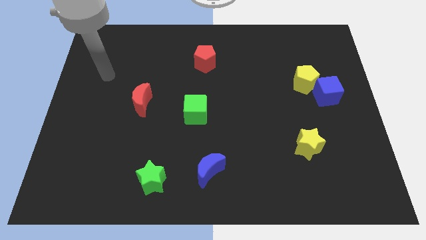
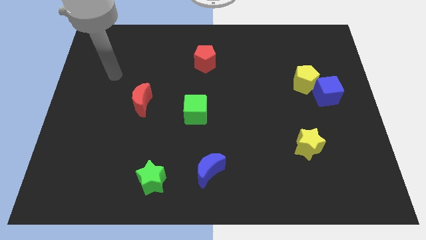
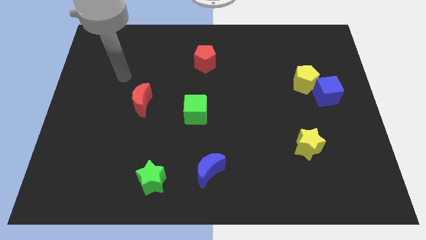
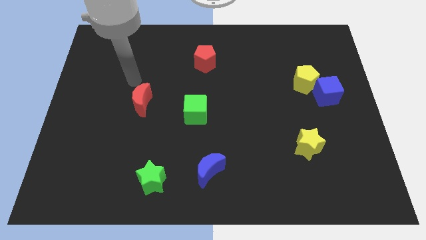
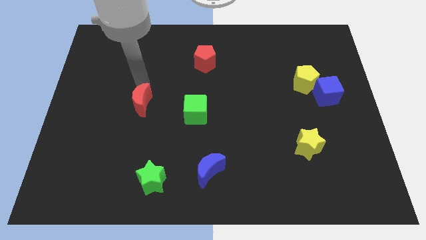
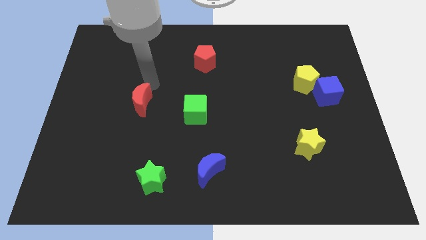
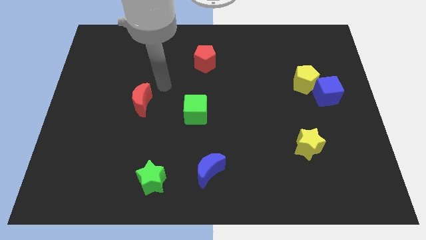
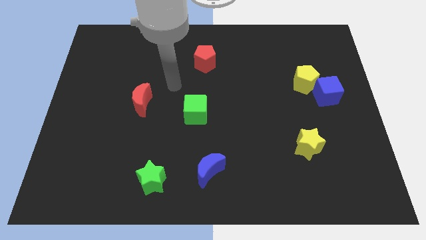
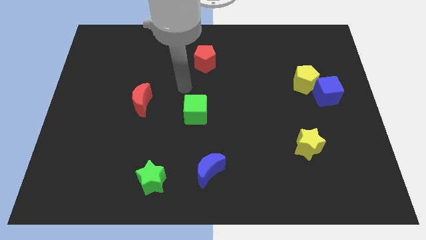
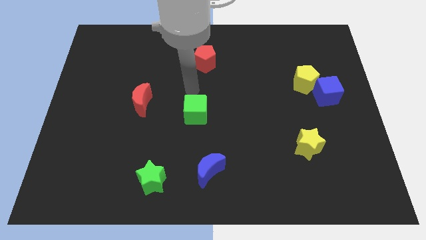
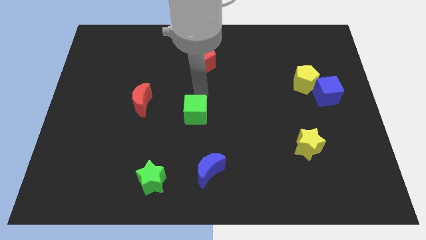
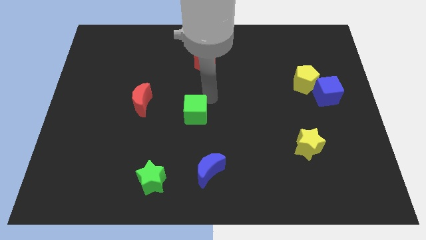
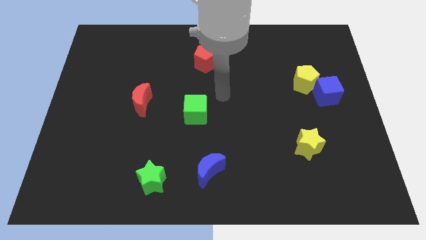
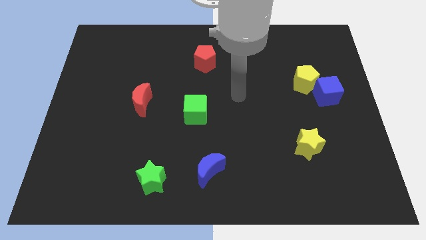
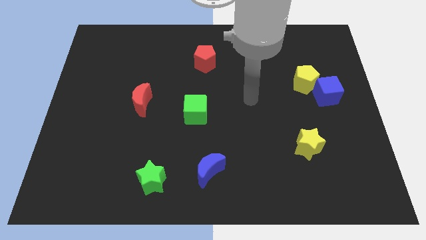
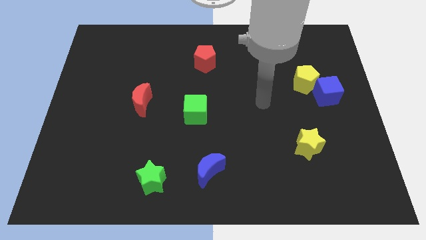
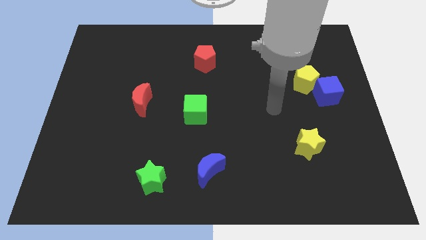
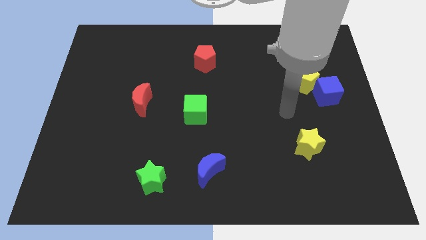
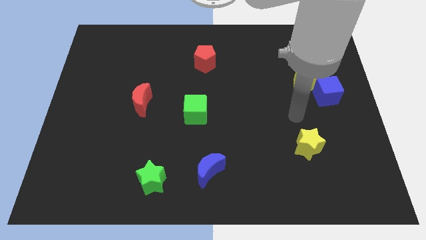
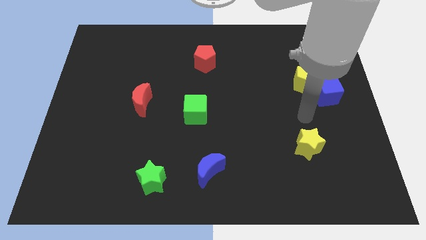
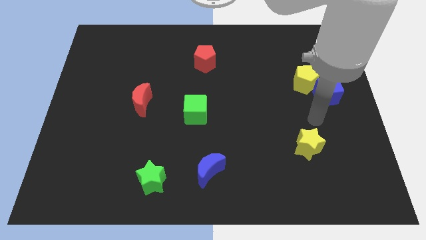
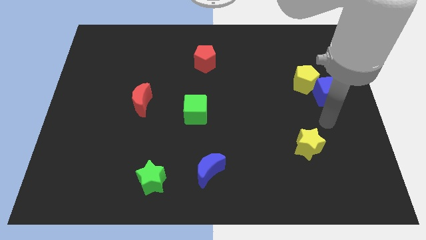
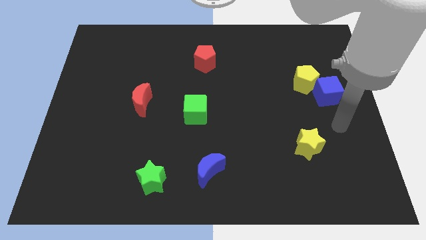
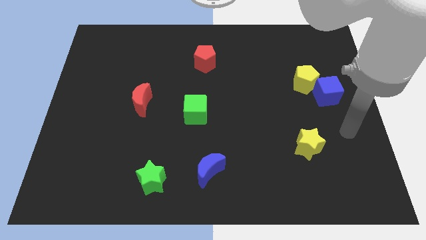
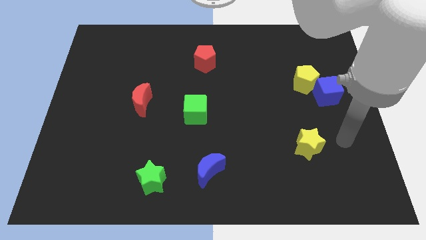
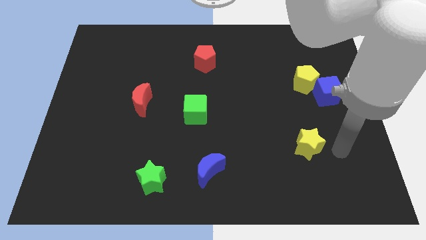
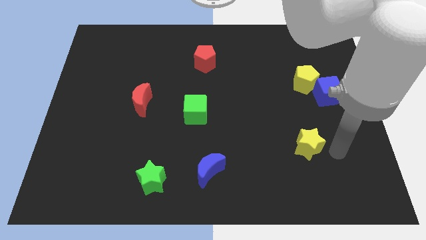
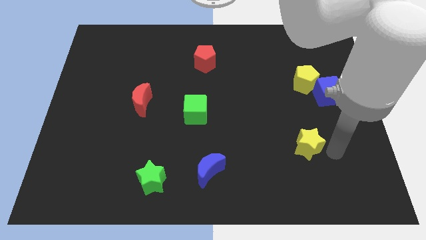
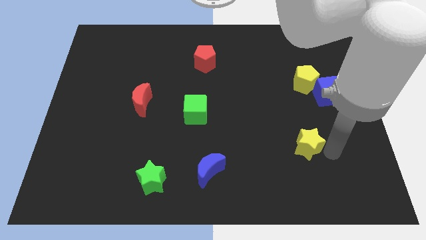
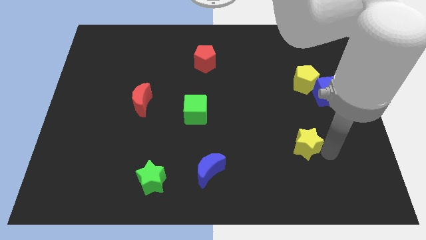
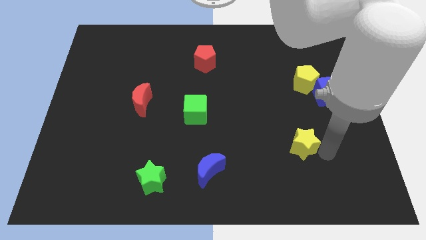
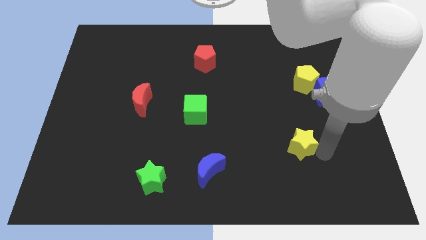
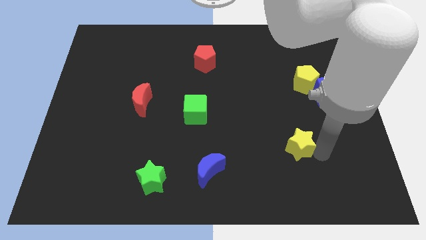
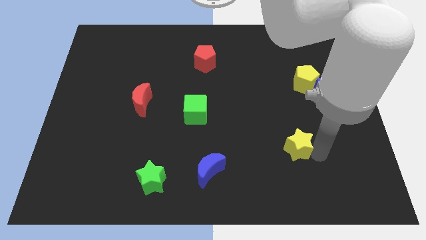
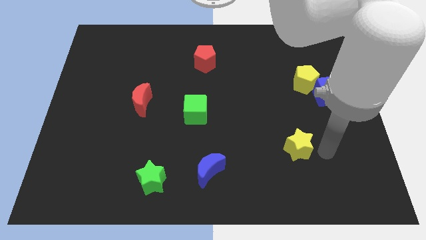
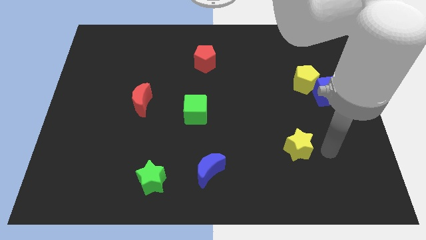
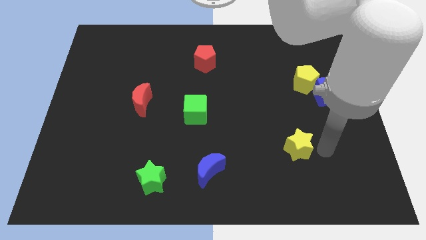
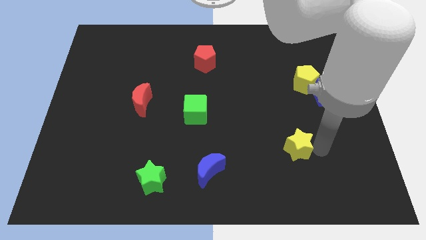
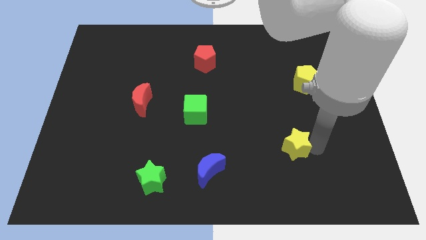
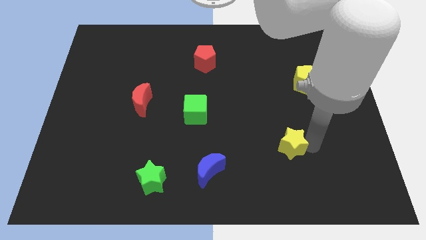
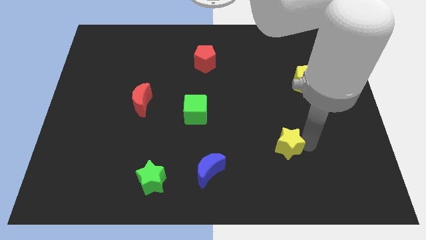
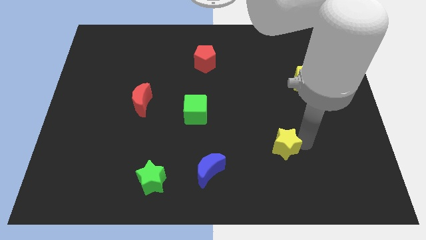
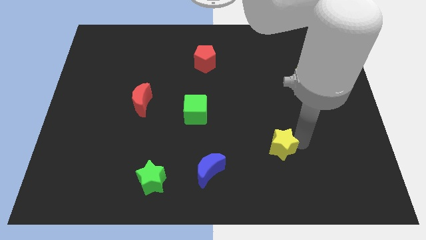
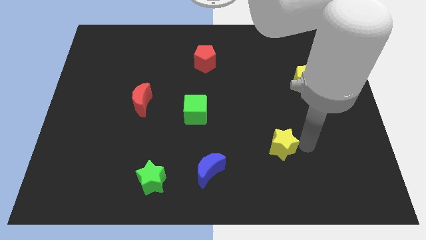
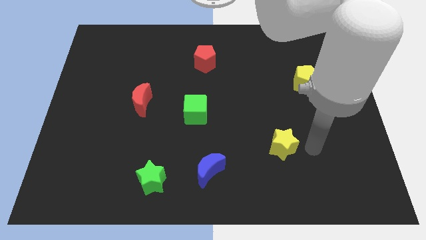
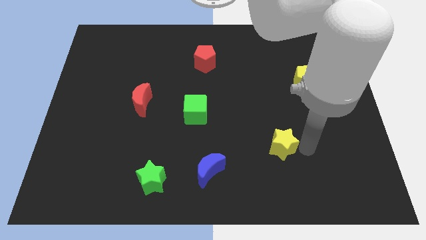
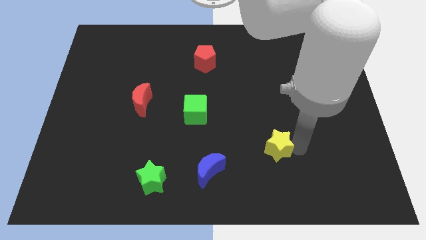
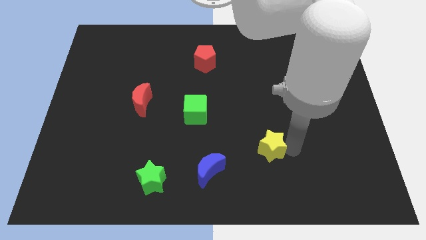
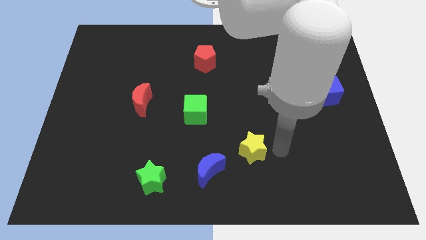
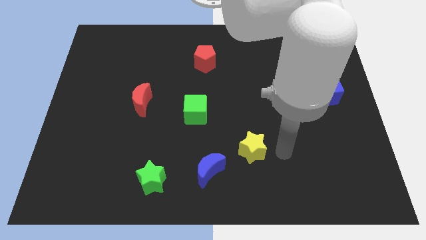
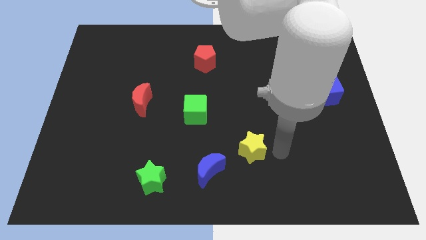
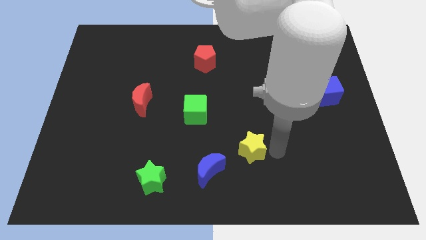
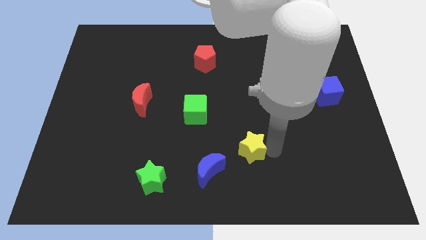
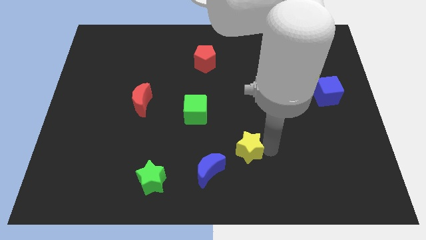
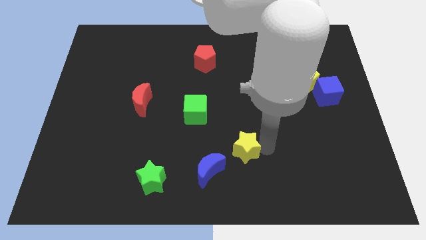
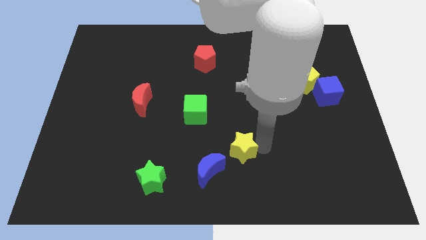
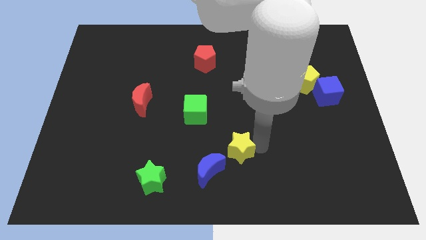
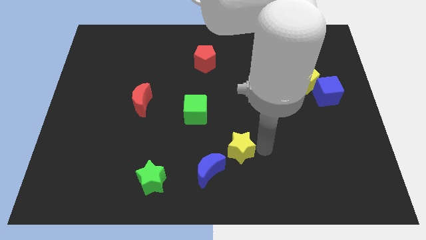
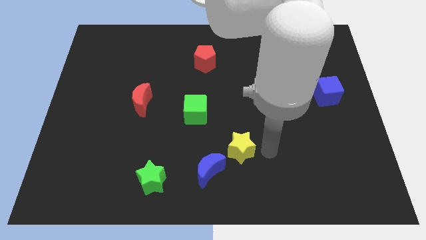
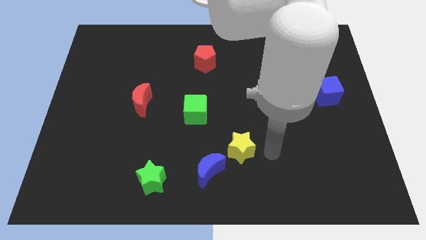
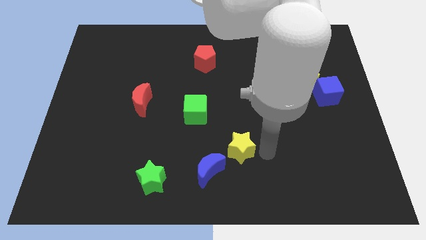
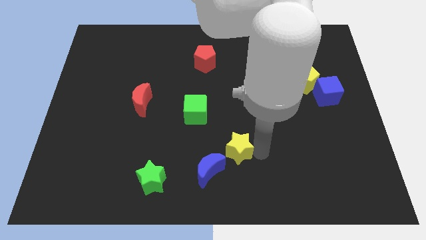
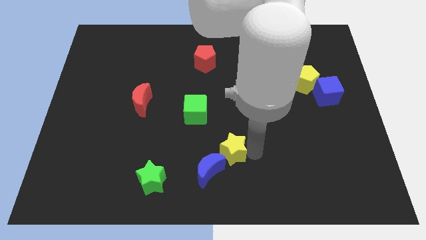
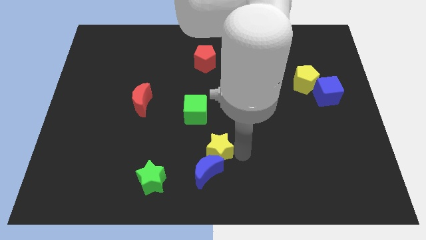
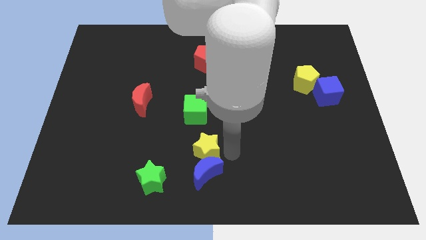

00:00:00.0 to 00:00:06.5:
move the yellow star to the top left side of the blue moon
